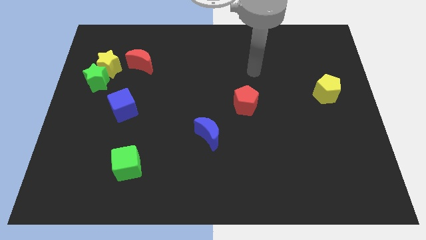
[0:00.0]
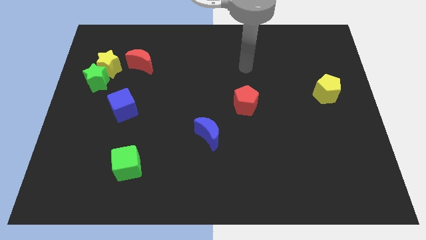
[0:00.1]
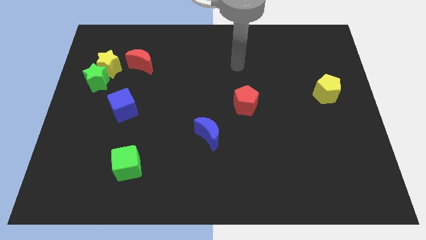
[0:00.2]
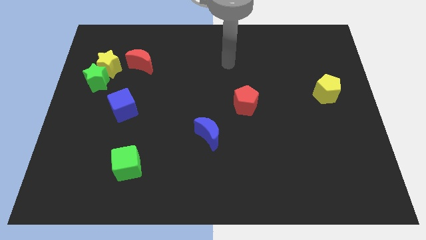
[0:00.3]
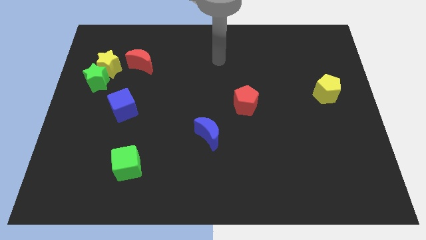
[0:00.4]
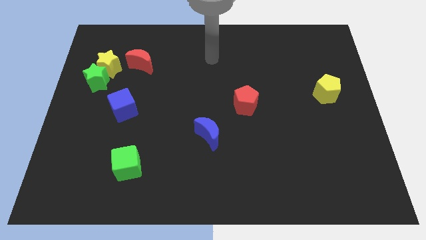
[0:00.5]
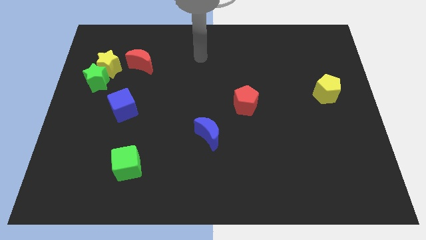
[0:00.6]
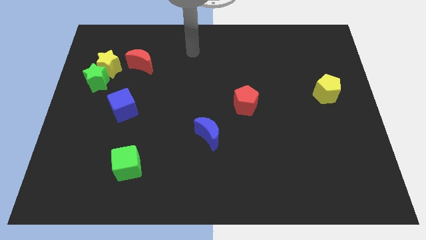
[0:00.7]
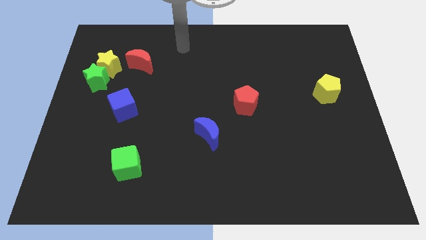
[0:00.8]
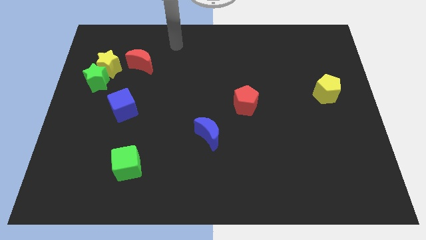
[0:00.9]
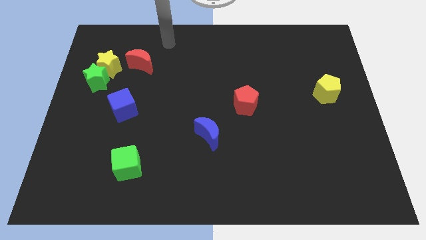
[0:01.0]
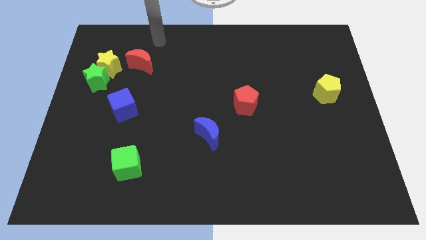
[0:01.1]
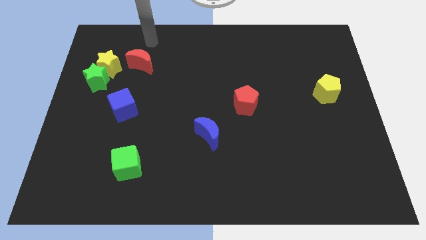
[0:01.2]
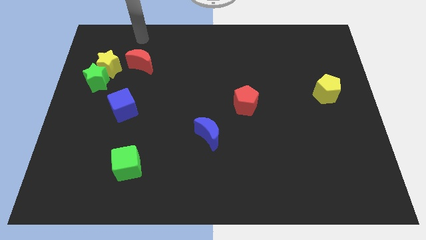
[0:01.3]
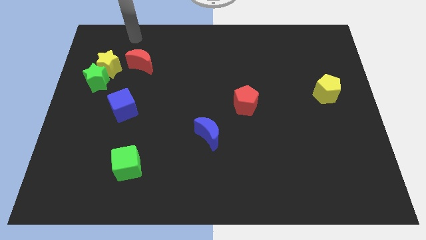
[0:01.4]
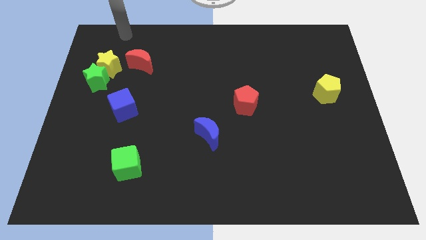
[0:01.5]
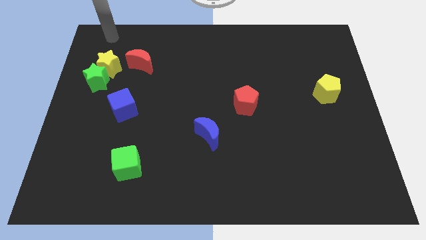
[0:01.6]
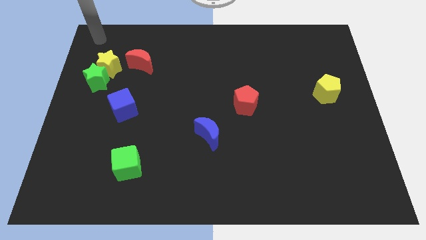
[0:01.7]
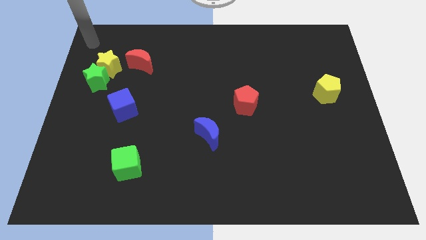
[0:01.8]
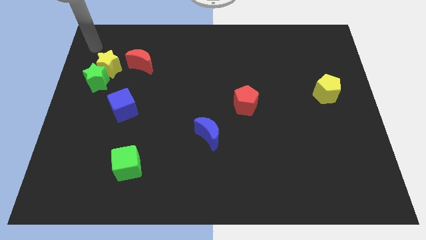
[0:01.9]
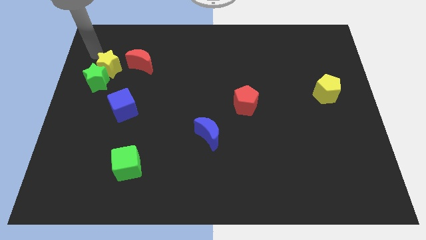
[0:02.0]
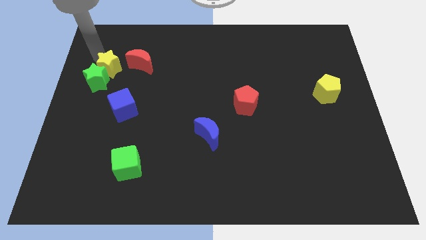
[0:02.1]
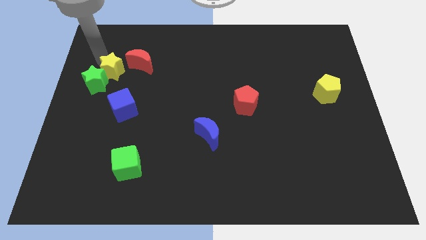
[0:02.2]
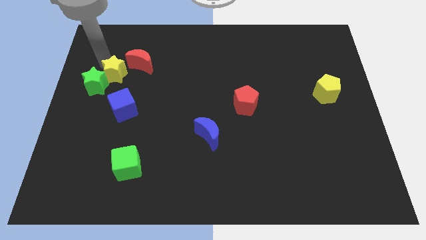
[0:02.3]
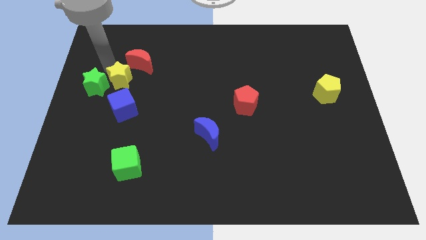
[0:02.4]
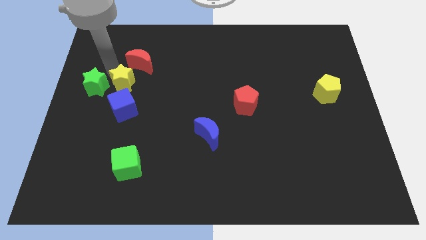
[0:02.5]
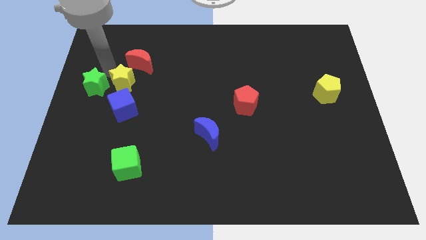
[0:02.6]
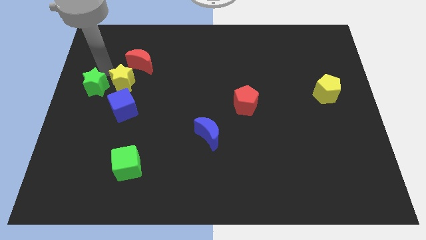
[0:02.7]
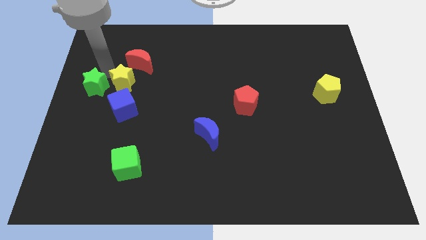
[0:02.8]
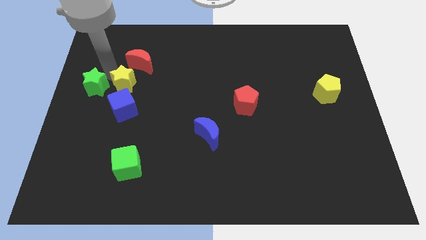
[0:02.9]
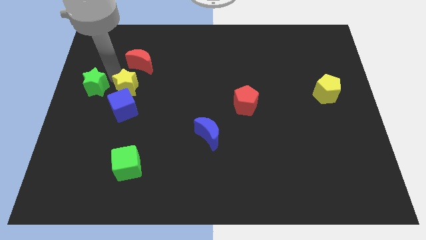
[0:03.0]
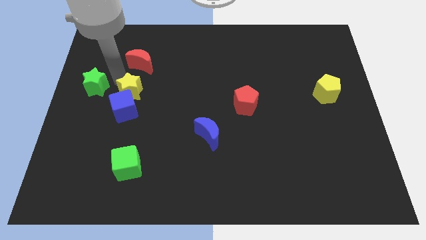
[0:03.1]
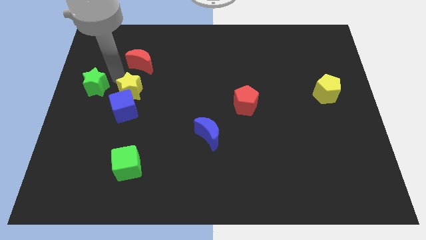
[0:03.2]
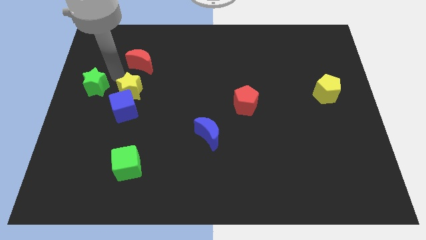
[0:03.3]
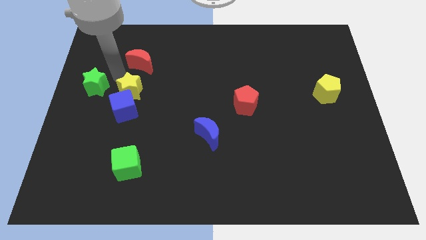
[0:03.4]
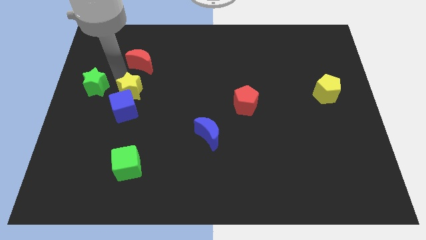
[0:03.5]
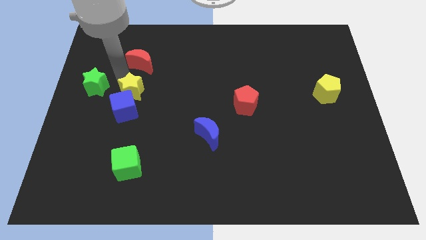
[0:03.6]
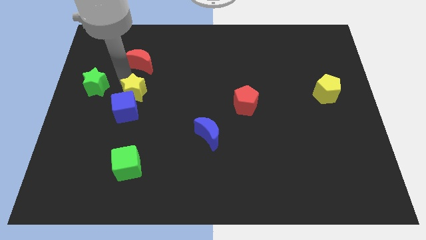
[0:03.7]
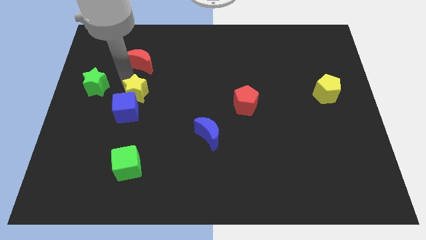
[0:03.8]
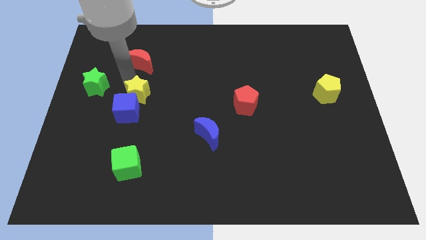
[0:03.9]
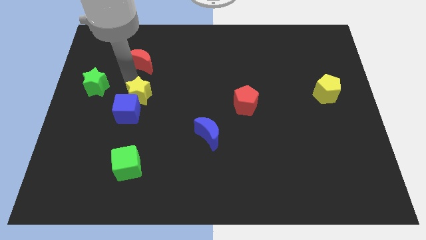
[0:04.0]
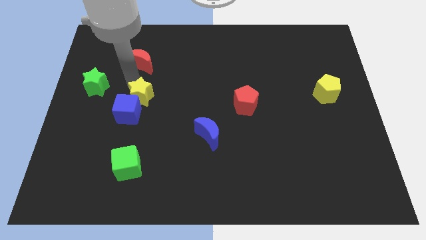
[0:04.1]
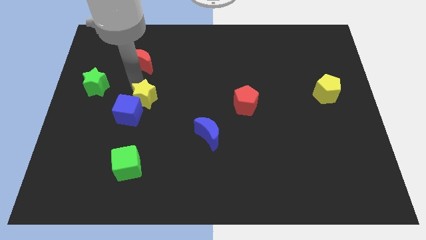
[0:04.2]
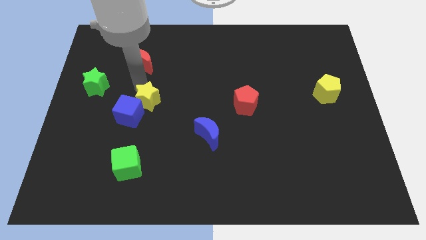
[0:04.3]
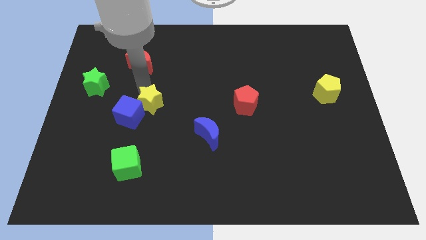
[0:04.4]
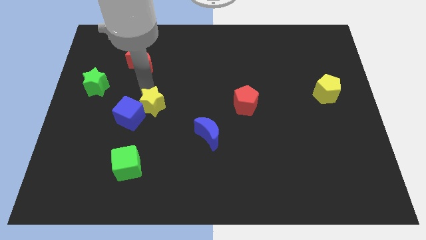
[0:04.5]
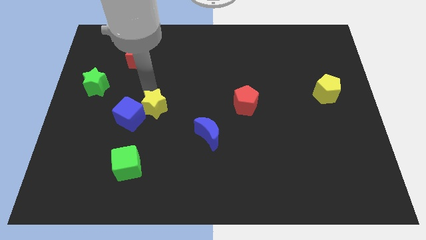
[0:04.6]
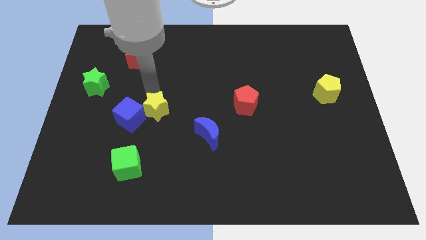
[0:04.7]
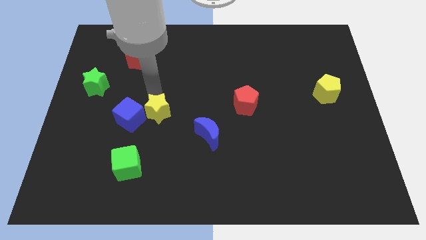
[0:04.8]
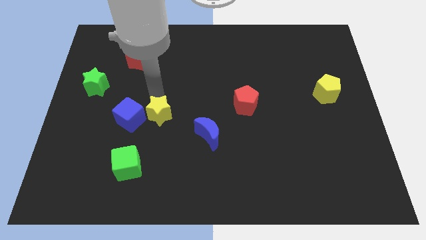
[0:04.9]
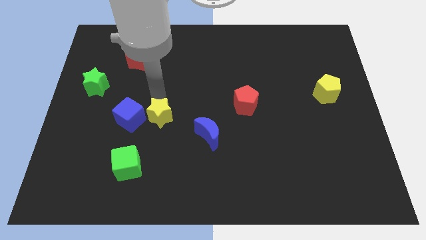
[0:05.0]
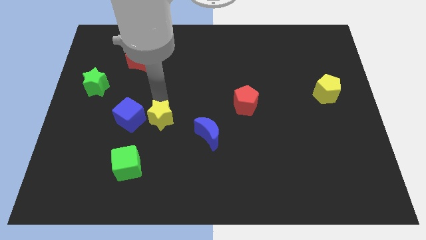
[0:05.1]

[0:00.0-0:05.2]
put the yellow star to the left of the blue moon

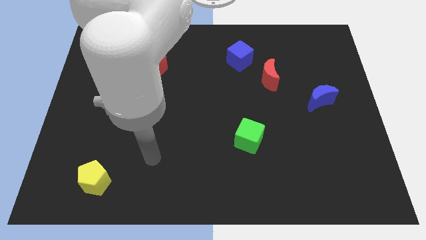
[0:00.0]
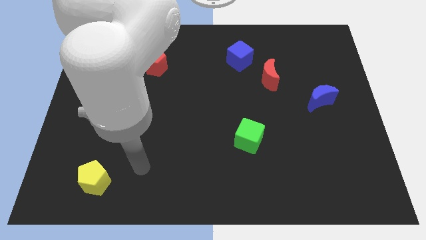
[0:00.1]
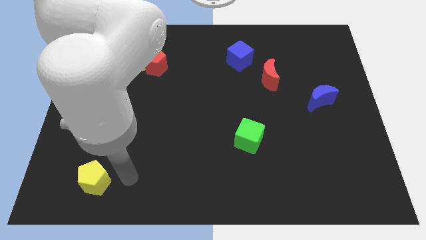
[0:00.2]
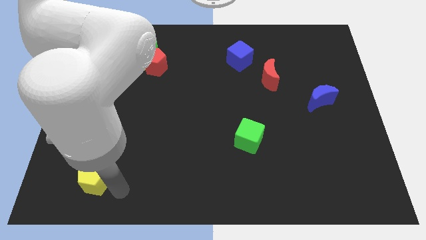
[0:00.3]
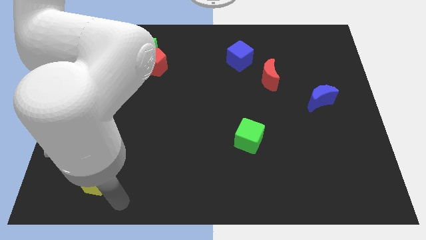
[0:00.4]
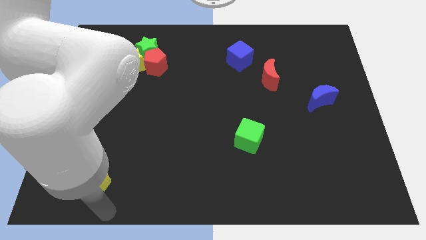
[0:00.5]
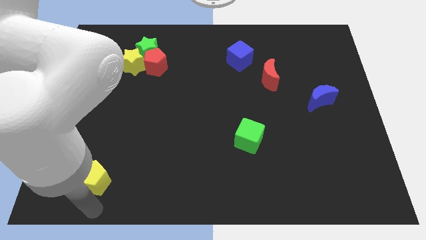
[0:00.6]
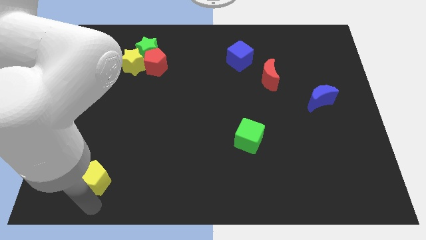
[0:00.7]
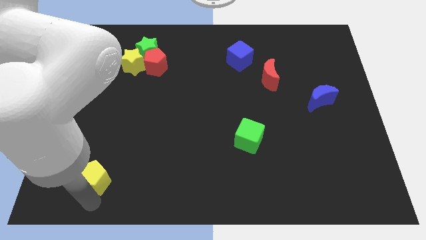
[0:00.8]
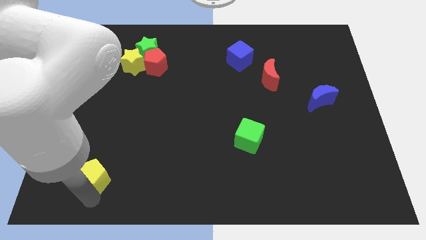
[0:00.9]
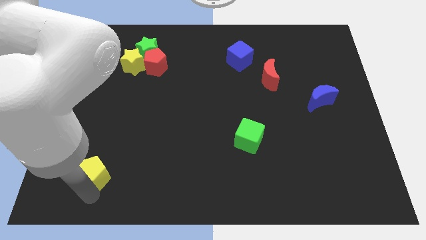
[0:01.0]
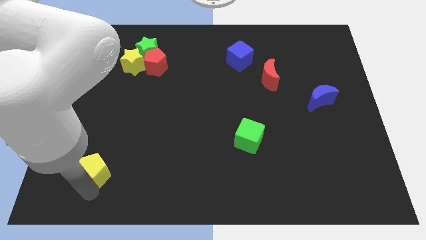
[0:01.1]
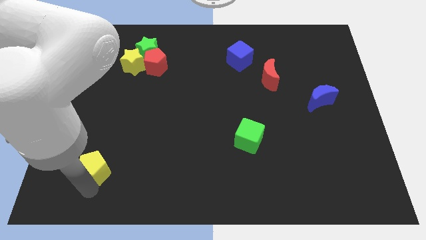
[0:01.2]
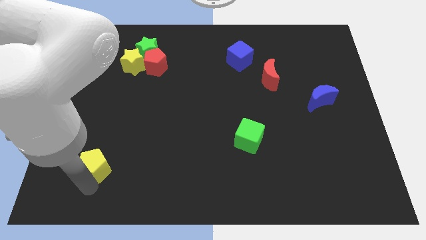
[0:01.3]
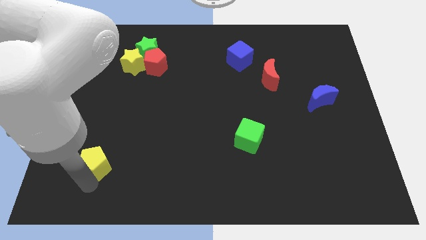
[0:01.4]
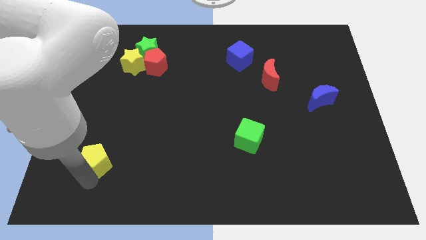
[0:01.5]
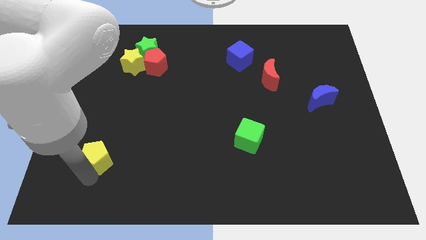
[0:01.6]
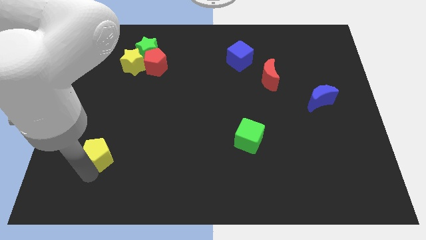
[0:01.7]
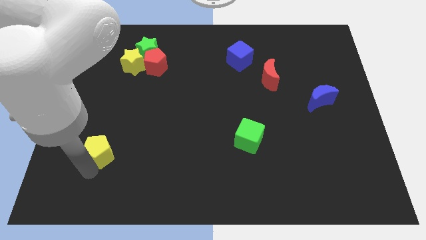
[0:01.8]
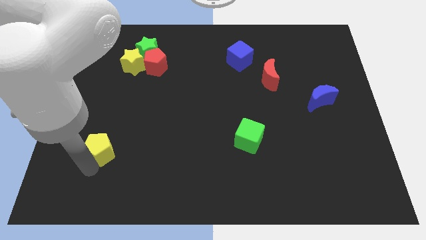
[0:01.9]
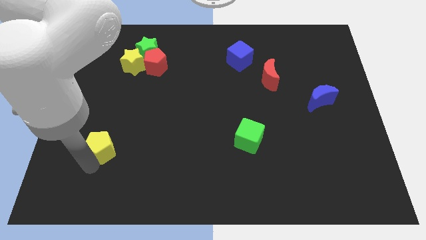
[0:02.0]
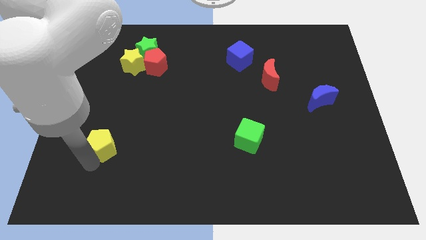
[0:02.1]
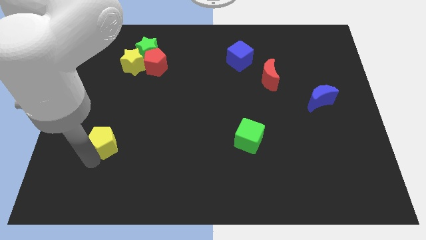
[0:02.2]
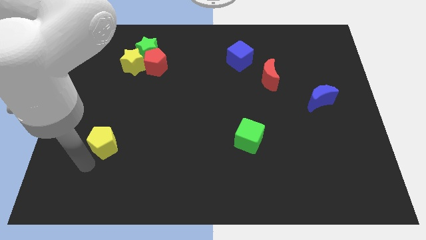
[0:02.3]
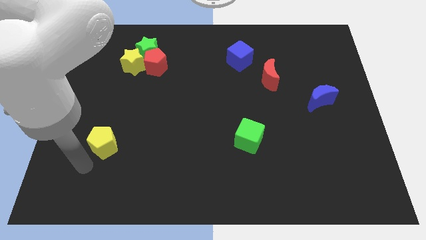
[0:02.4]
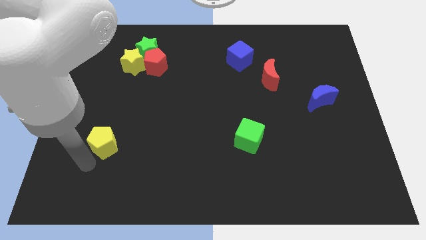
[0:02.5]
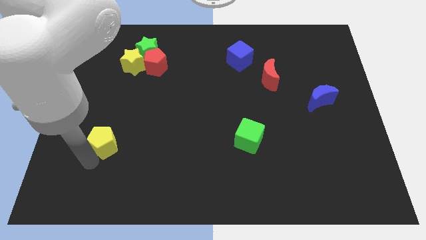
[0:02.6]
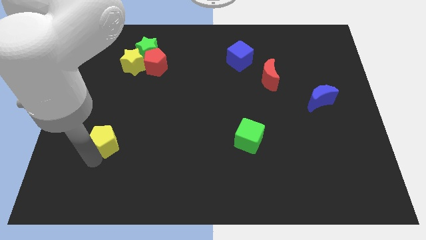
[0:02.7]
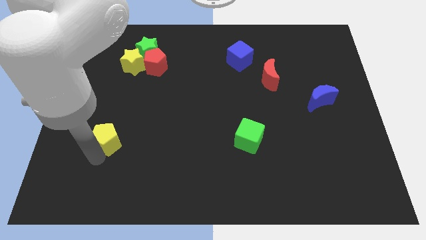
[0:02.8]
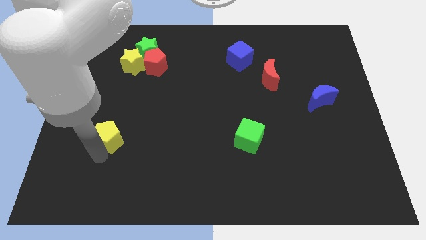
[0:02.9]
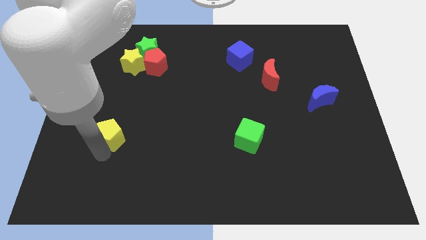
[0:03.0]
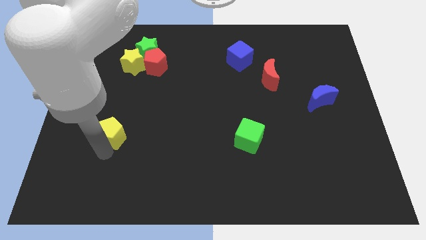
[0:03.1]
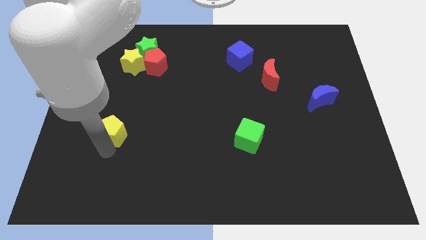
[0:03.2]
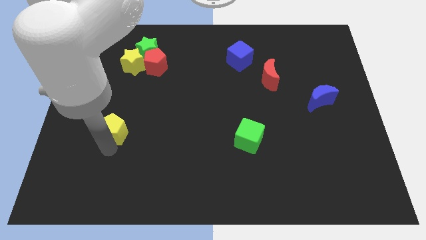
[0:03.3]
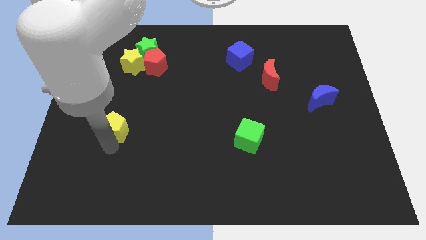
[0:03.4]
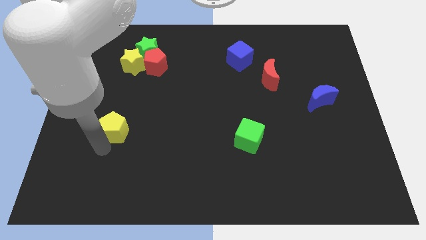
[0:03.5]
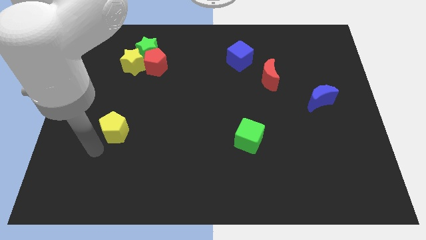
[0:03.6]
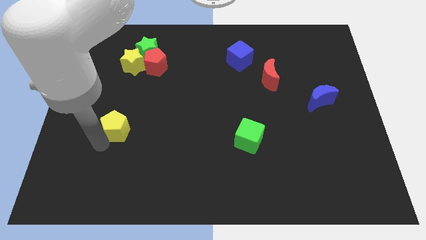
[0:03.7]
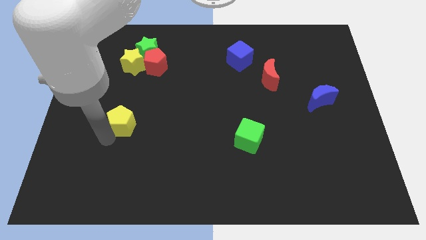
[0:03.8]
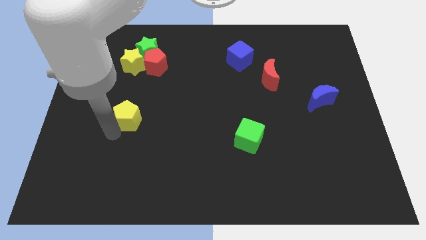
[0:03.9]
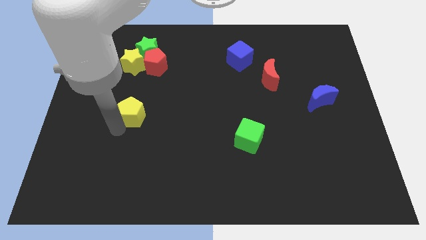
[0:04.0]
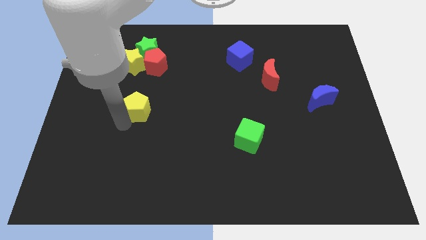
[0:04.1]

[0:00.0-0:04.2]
put the yellow pentagon to the bottom side of the red pentagon
